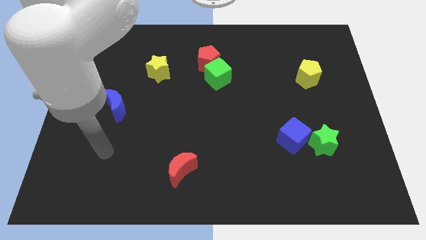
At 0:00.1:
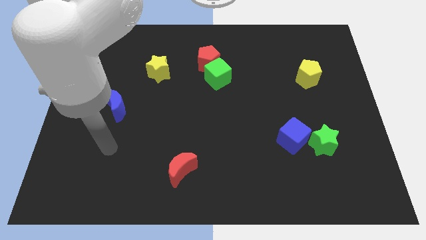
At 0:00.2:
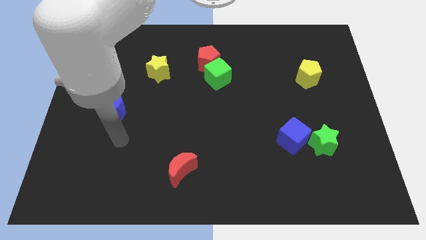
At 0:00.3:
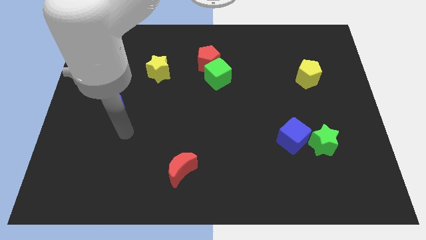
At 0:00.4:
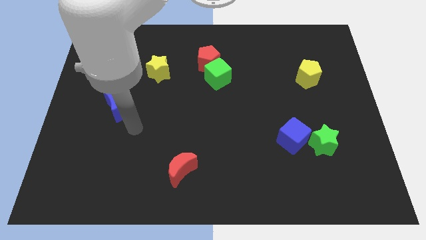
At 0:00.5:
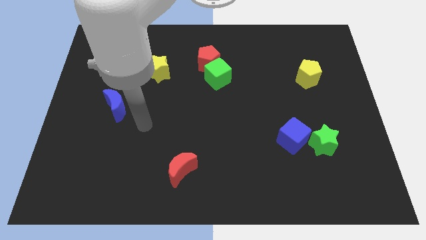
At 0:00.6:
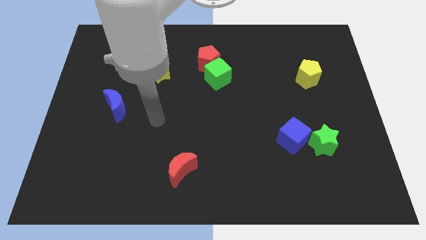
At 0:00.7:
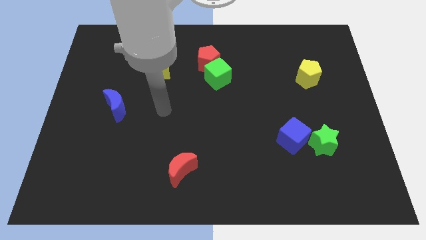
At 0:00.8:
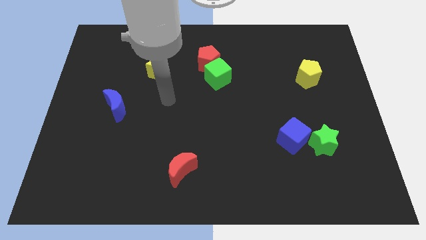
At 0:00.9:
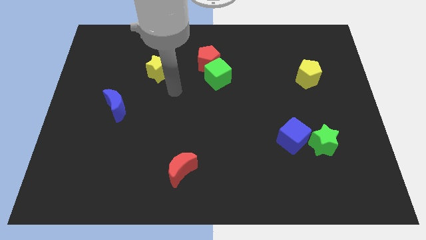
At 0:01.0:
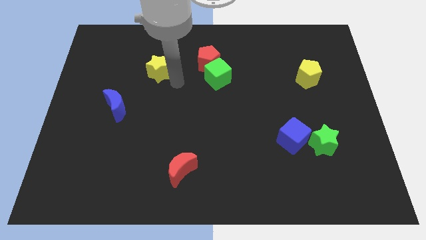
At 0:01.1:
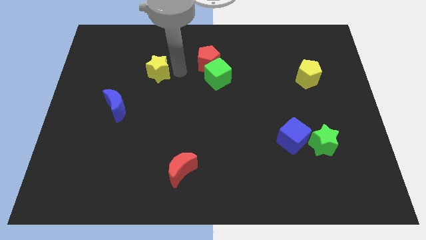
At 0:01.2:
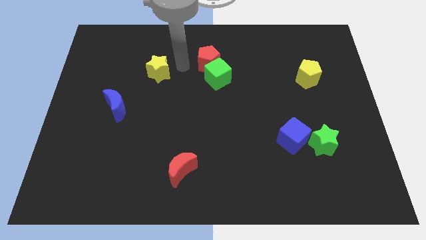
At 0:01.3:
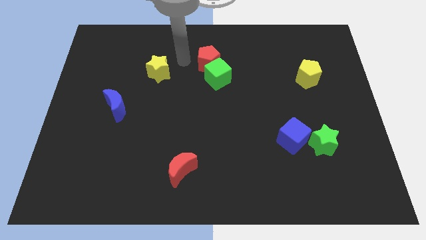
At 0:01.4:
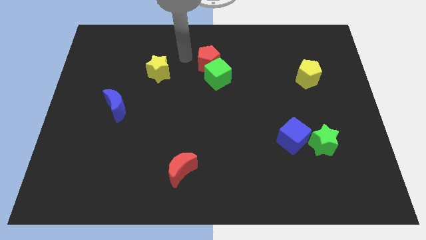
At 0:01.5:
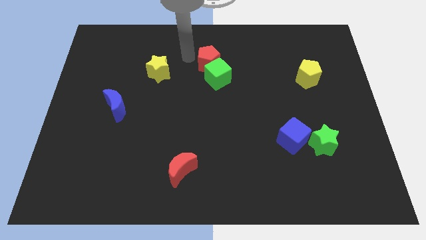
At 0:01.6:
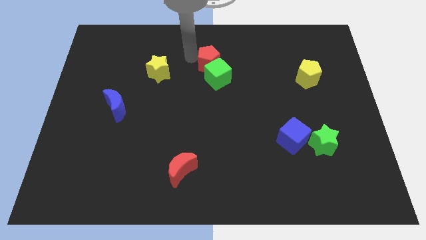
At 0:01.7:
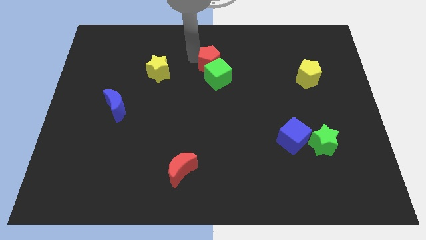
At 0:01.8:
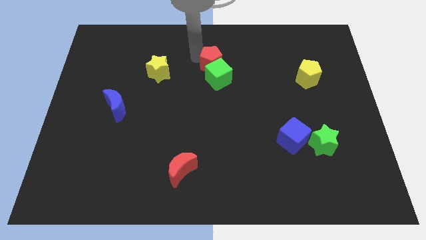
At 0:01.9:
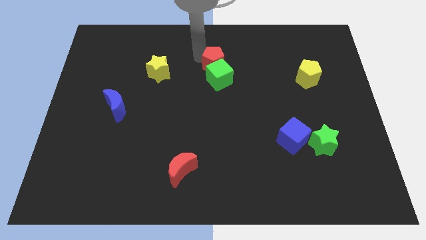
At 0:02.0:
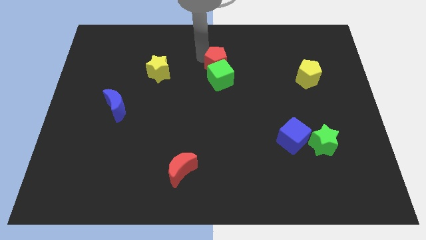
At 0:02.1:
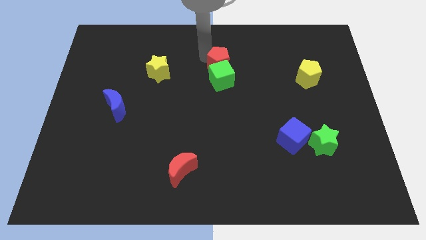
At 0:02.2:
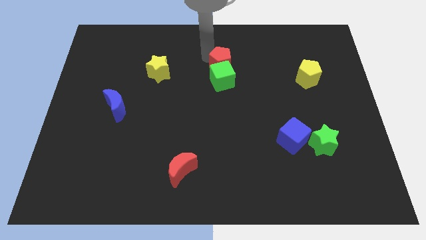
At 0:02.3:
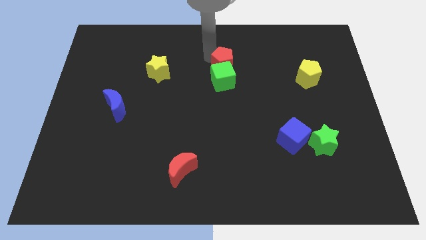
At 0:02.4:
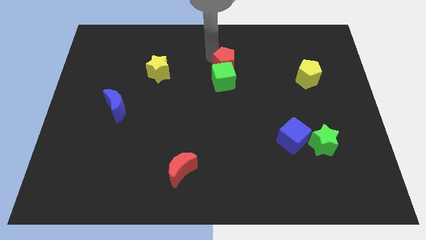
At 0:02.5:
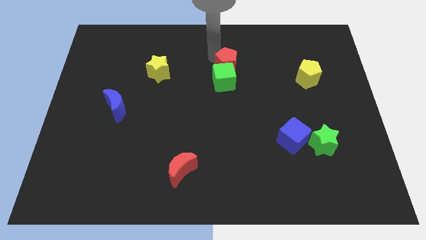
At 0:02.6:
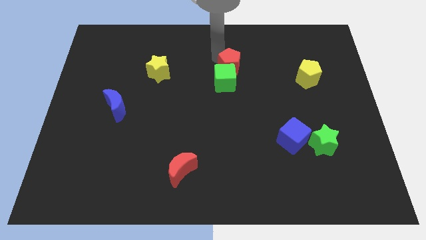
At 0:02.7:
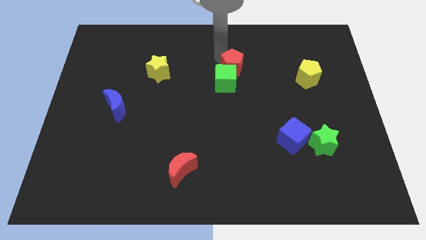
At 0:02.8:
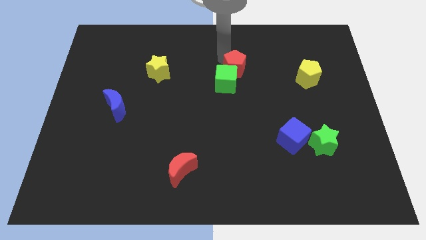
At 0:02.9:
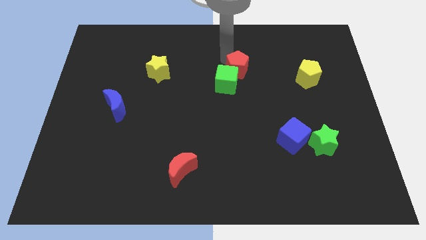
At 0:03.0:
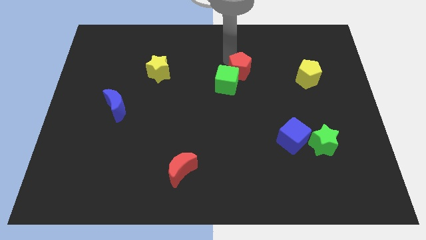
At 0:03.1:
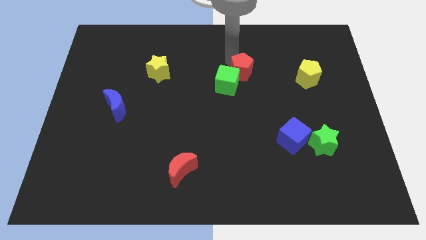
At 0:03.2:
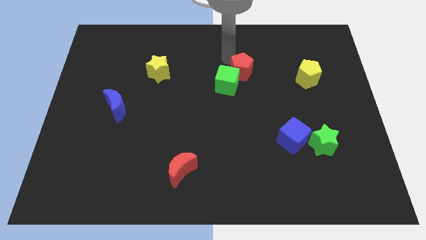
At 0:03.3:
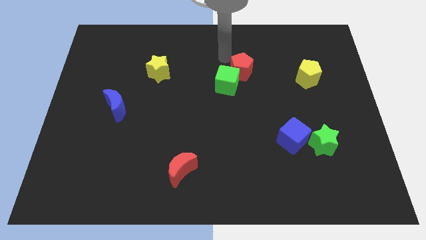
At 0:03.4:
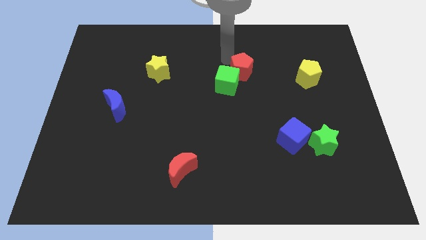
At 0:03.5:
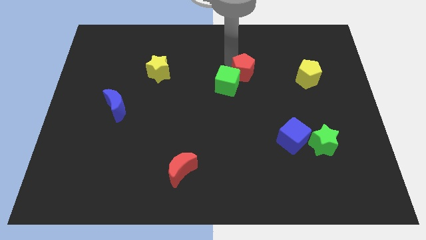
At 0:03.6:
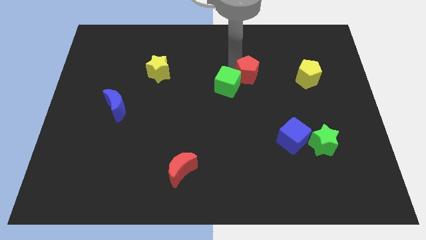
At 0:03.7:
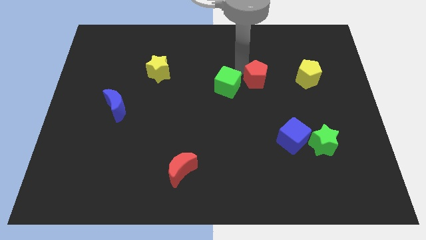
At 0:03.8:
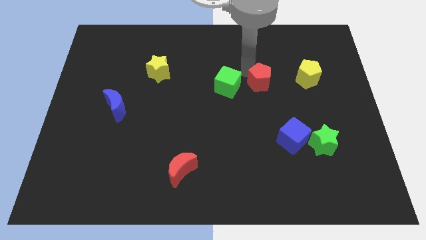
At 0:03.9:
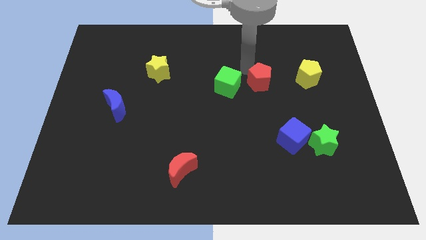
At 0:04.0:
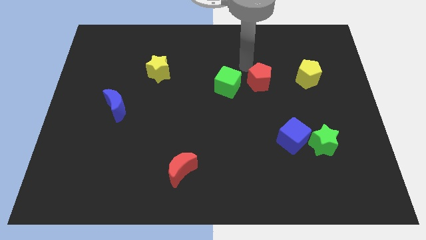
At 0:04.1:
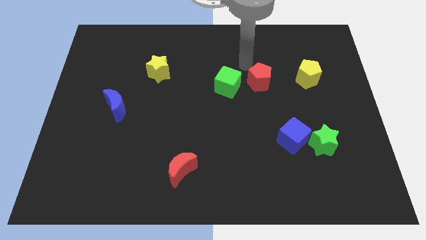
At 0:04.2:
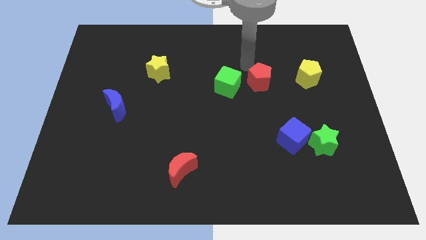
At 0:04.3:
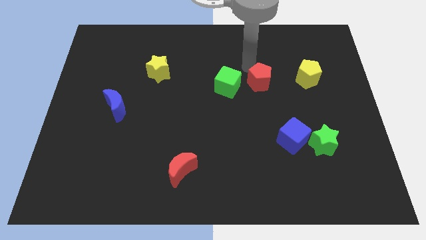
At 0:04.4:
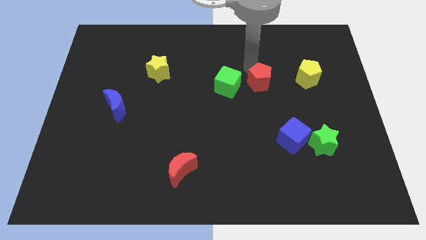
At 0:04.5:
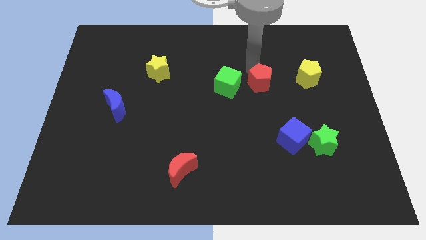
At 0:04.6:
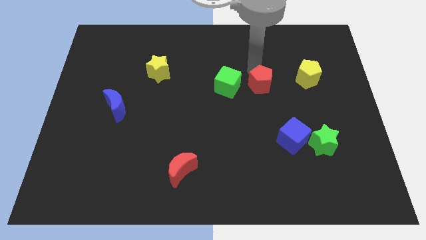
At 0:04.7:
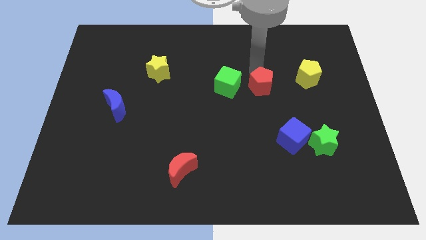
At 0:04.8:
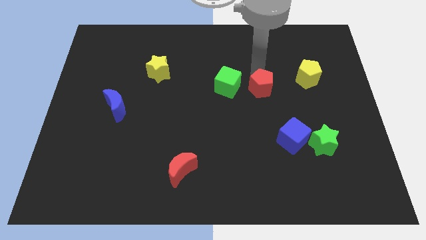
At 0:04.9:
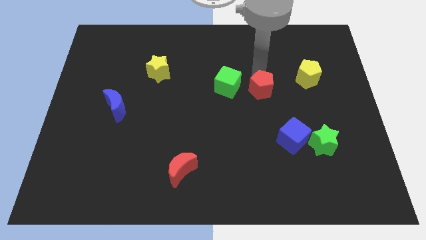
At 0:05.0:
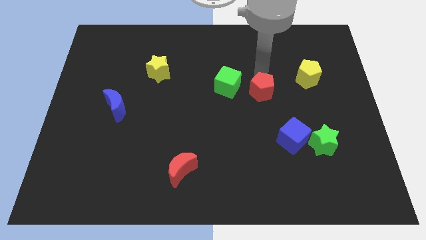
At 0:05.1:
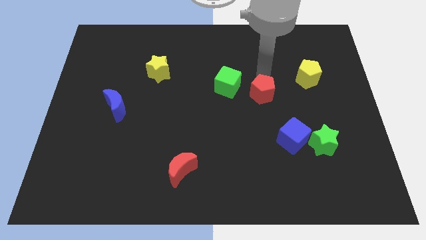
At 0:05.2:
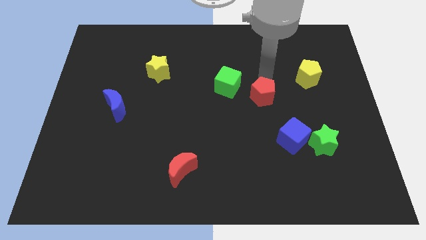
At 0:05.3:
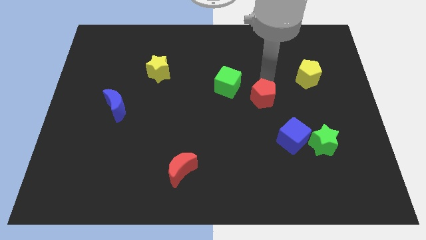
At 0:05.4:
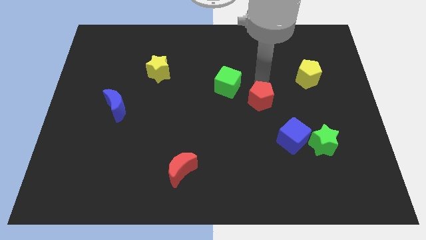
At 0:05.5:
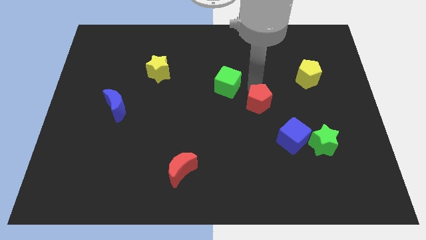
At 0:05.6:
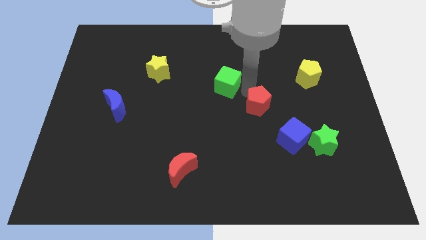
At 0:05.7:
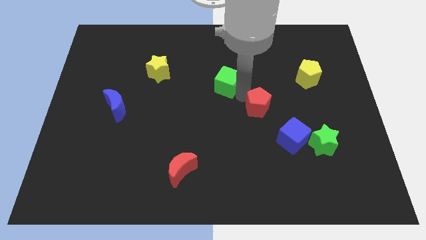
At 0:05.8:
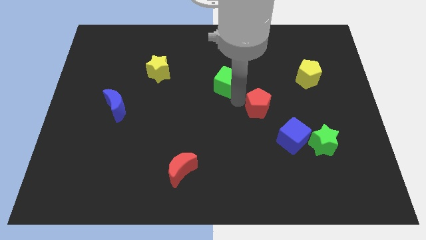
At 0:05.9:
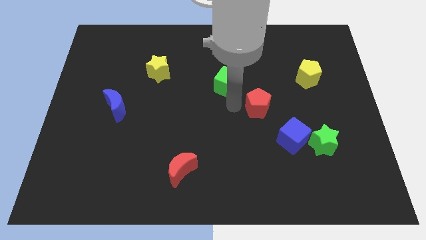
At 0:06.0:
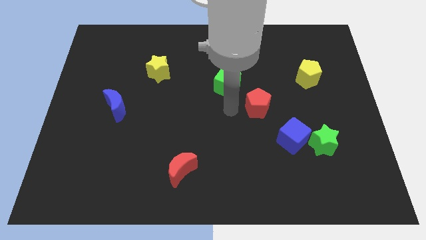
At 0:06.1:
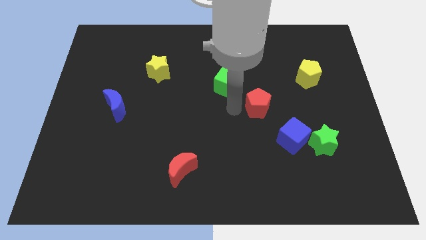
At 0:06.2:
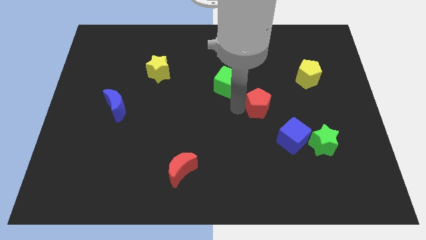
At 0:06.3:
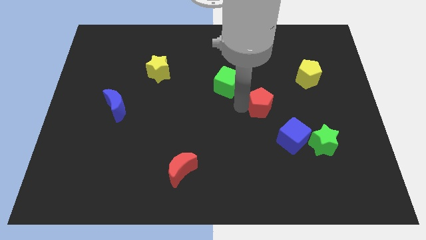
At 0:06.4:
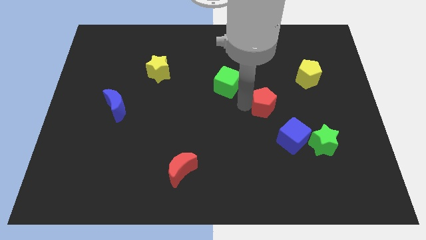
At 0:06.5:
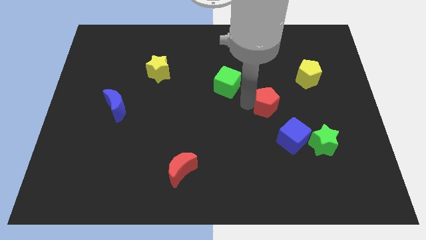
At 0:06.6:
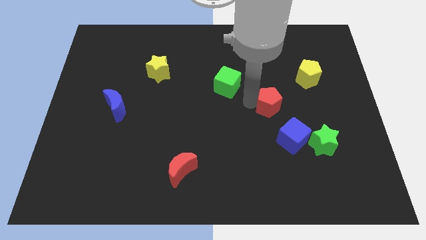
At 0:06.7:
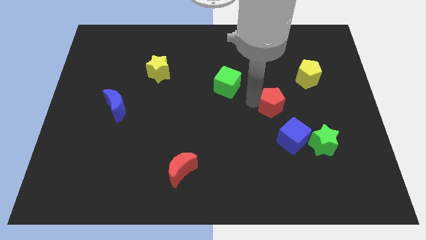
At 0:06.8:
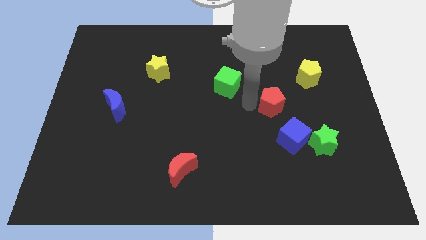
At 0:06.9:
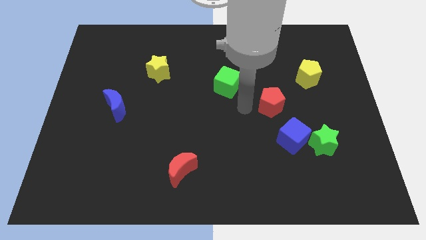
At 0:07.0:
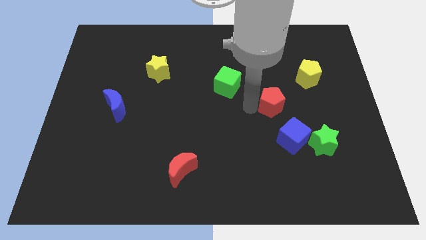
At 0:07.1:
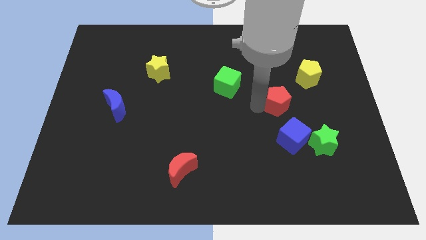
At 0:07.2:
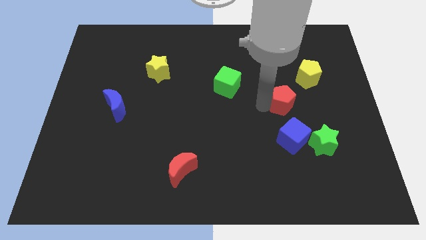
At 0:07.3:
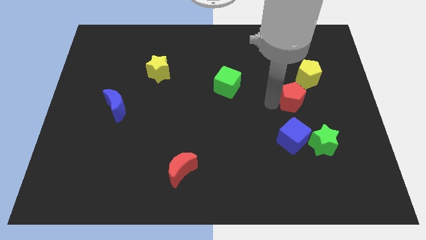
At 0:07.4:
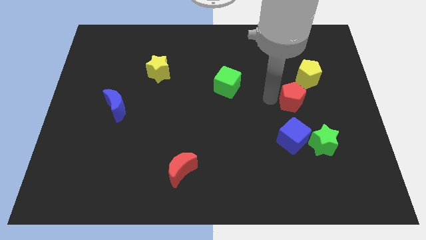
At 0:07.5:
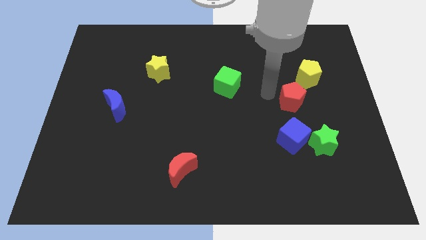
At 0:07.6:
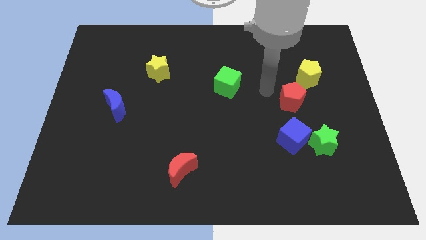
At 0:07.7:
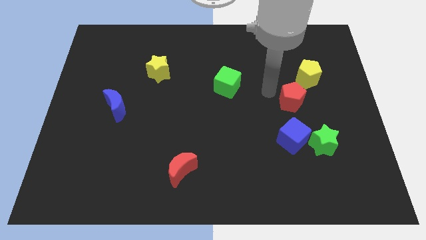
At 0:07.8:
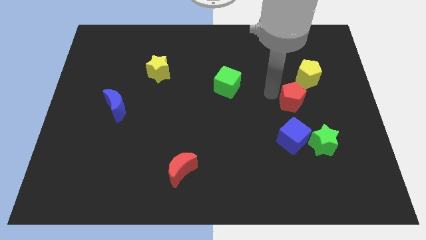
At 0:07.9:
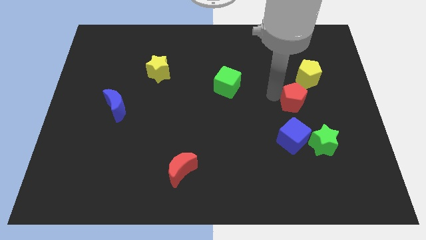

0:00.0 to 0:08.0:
slide the red pentagon to the bottom of the yellow pentagon

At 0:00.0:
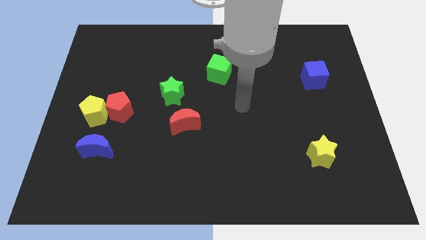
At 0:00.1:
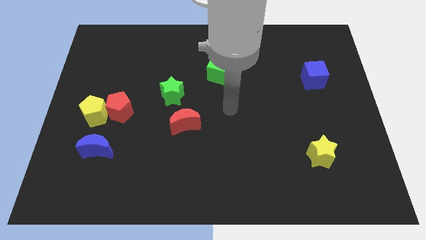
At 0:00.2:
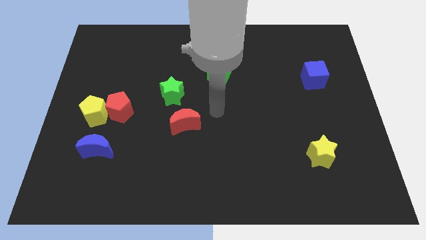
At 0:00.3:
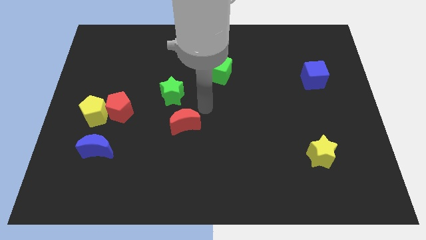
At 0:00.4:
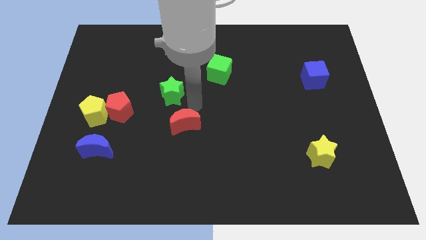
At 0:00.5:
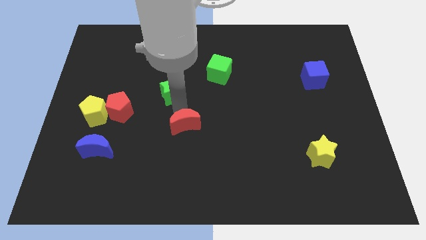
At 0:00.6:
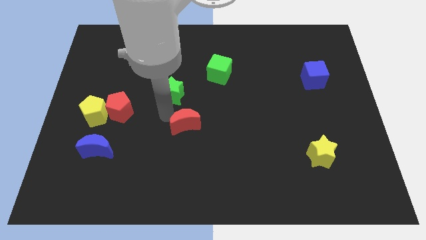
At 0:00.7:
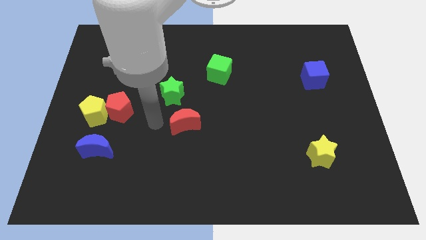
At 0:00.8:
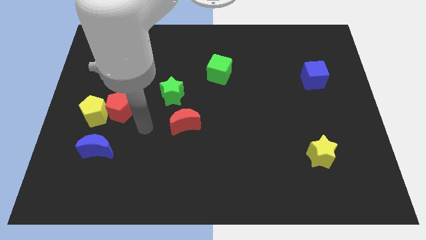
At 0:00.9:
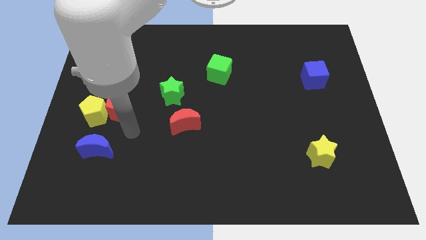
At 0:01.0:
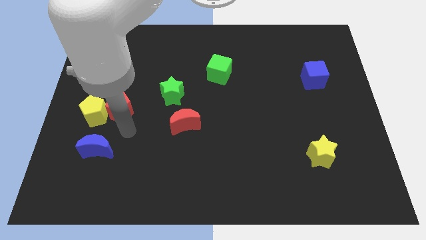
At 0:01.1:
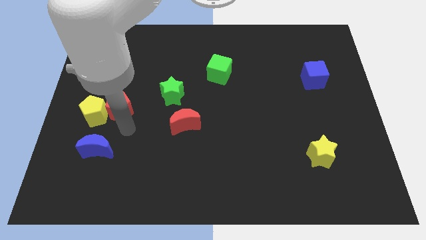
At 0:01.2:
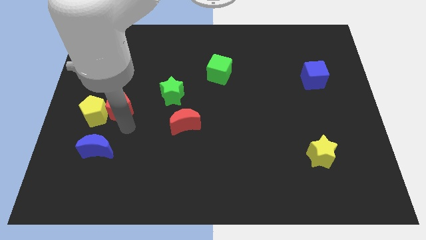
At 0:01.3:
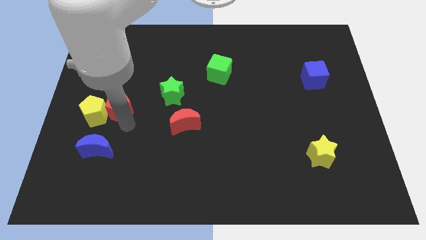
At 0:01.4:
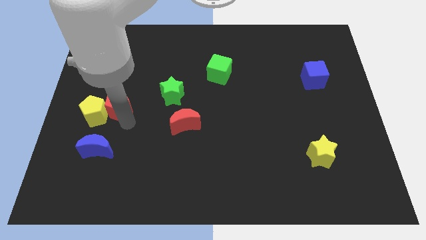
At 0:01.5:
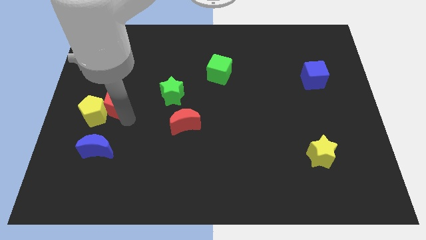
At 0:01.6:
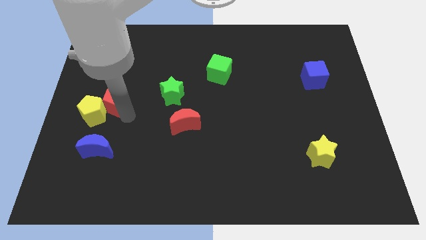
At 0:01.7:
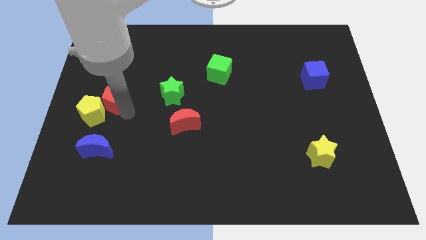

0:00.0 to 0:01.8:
move the red pentagon above the yellow pentagon
